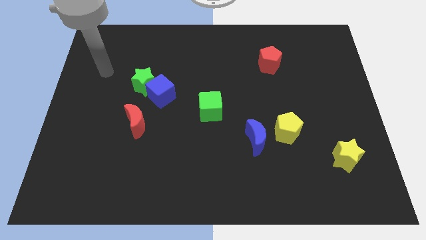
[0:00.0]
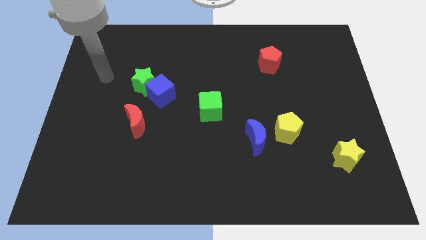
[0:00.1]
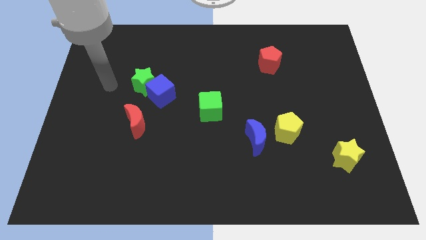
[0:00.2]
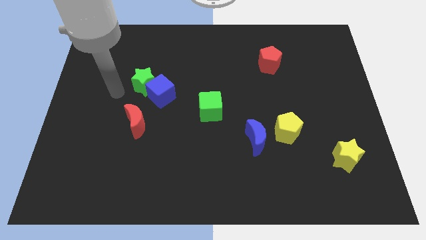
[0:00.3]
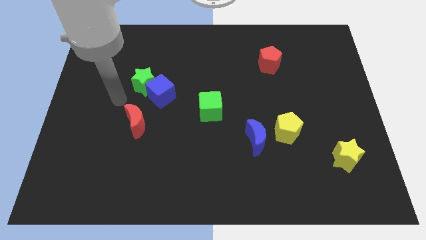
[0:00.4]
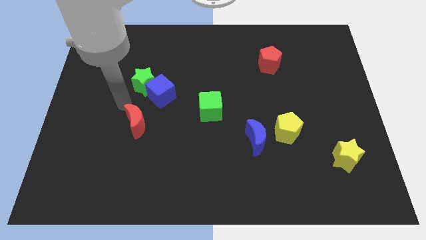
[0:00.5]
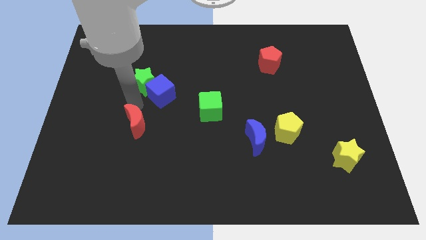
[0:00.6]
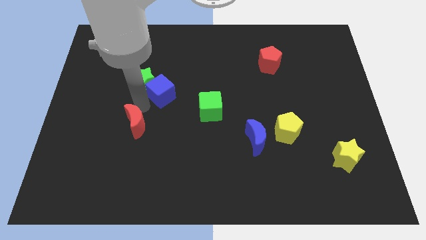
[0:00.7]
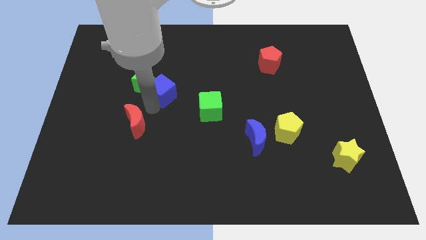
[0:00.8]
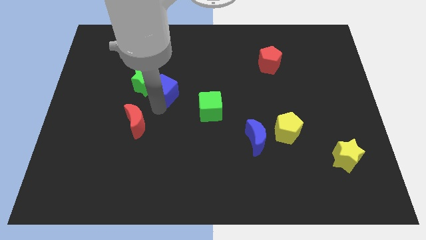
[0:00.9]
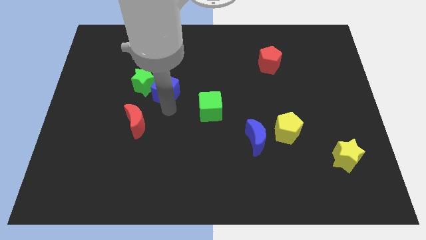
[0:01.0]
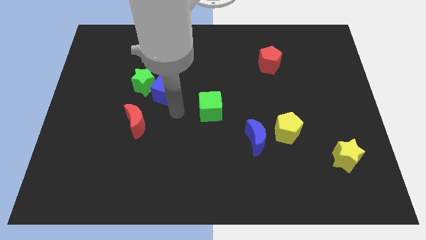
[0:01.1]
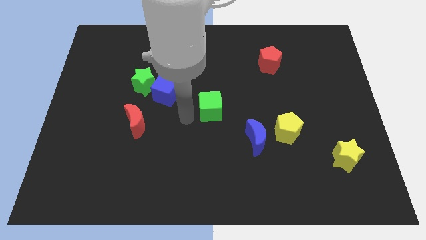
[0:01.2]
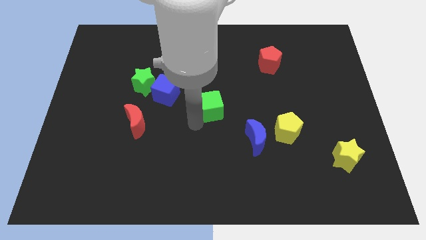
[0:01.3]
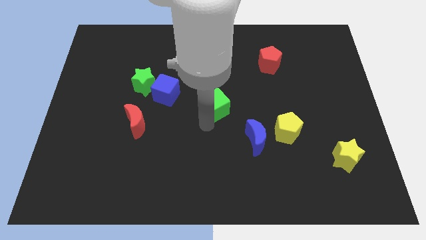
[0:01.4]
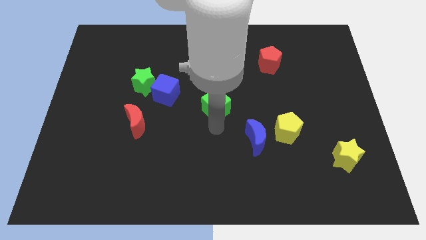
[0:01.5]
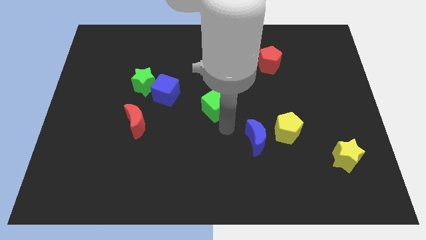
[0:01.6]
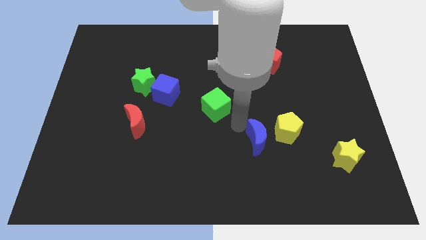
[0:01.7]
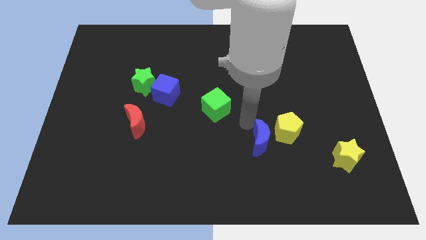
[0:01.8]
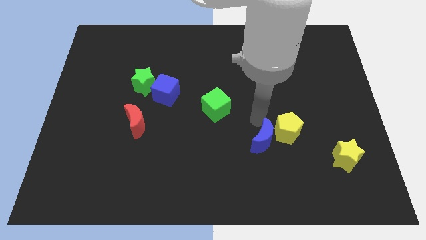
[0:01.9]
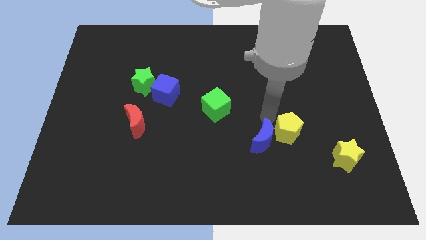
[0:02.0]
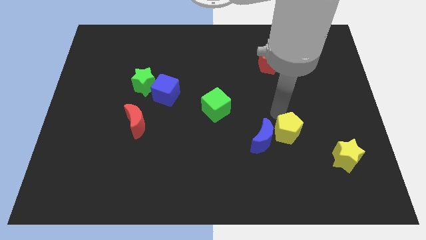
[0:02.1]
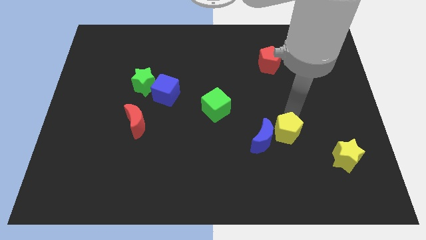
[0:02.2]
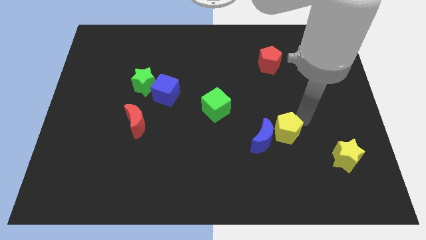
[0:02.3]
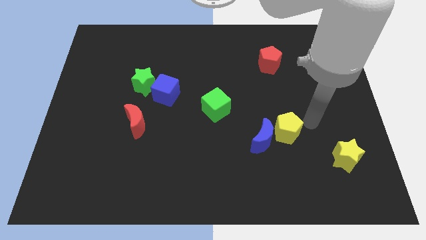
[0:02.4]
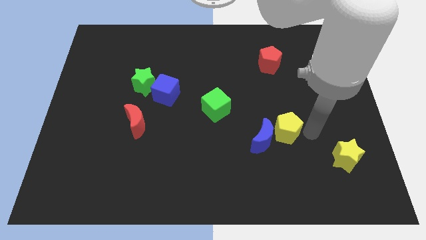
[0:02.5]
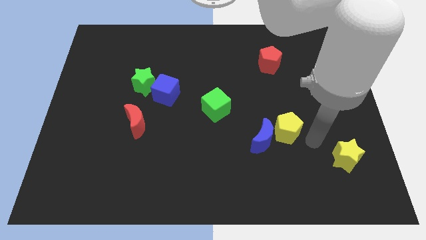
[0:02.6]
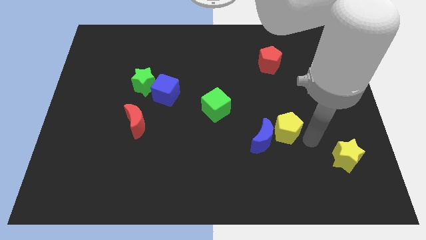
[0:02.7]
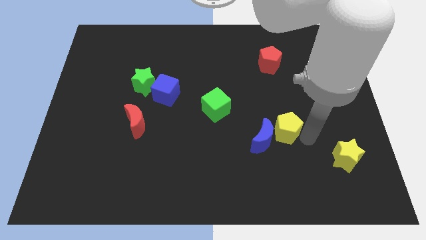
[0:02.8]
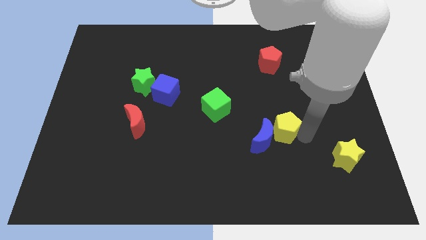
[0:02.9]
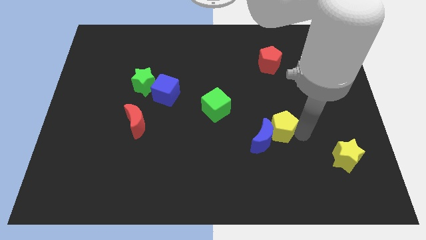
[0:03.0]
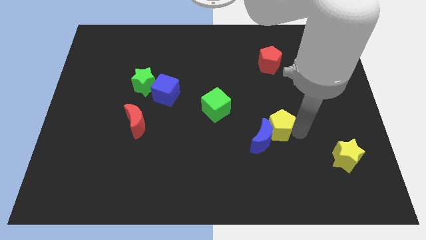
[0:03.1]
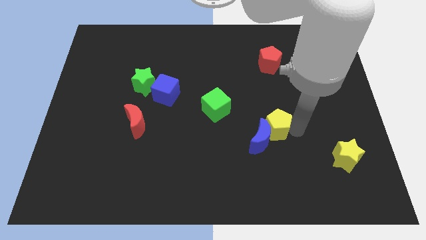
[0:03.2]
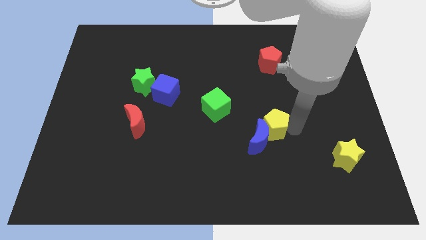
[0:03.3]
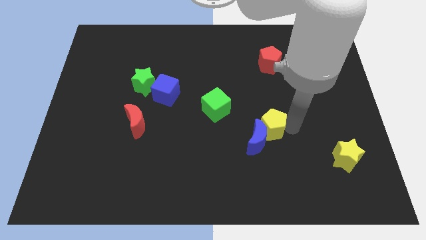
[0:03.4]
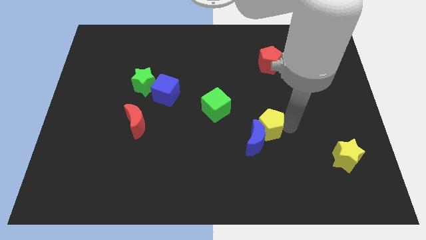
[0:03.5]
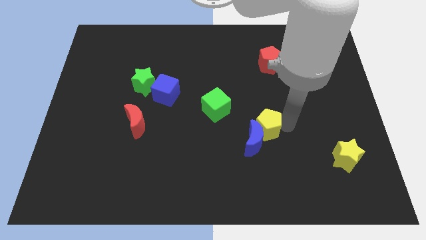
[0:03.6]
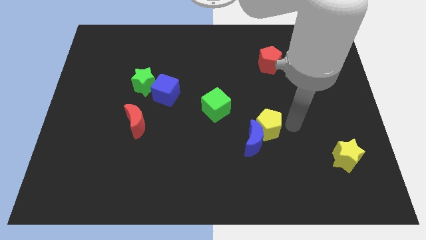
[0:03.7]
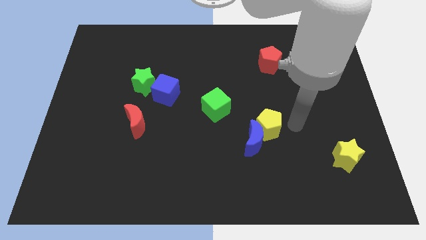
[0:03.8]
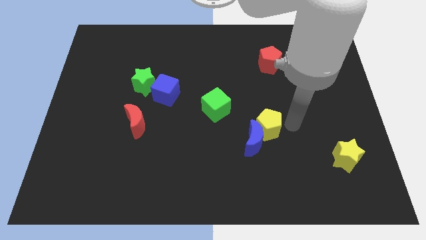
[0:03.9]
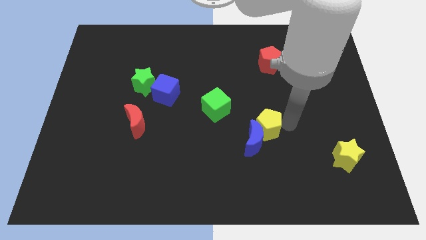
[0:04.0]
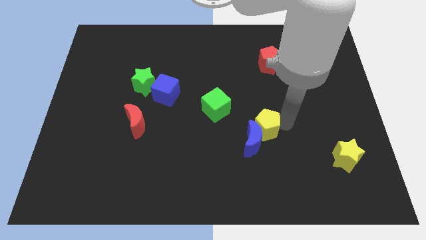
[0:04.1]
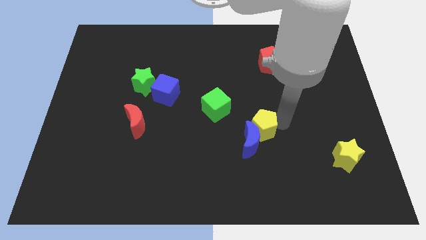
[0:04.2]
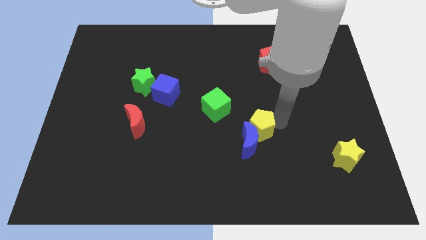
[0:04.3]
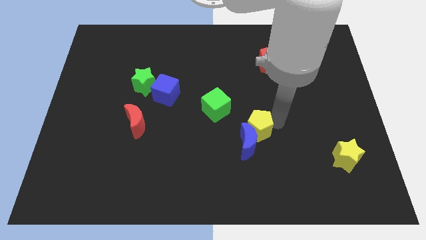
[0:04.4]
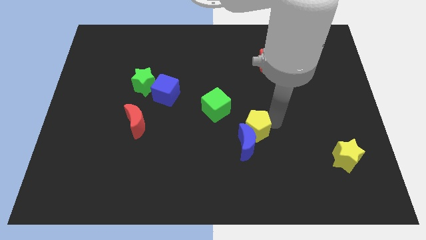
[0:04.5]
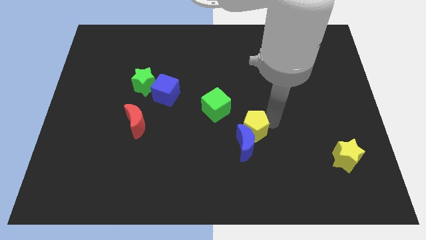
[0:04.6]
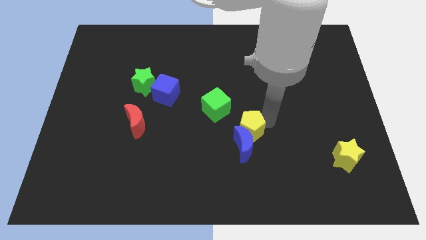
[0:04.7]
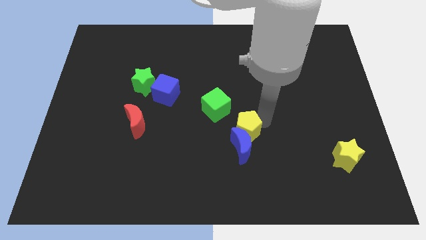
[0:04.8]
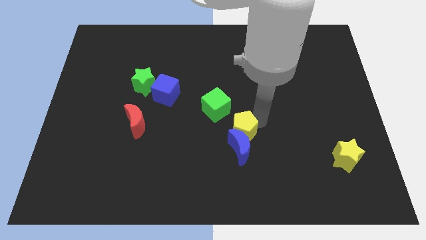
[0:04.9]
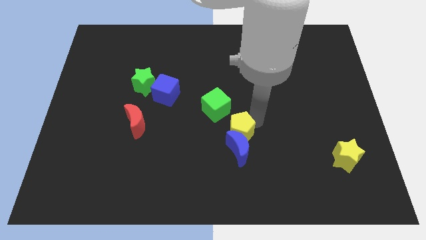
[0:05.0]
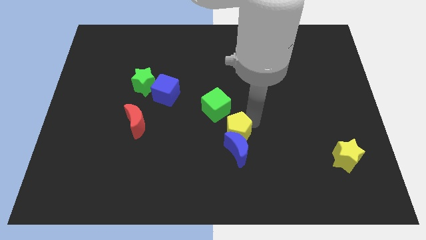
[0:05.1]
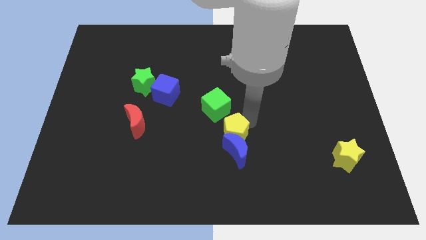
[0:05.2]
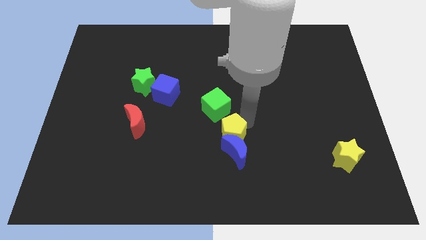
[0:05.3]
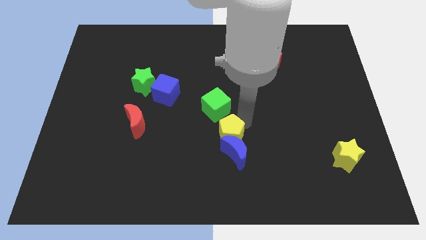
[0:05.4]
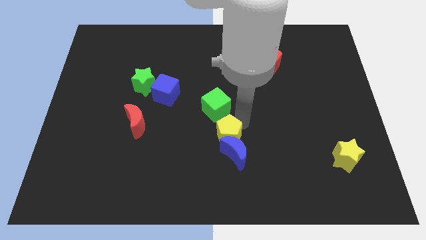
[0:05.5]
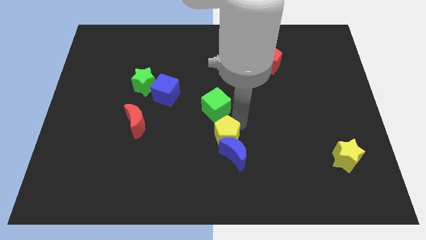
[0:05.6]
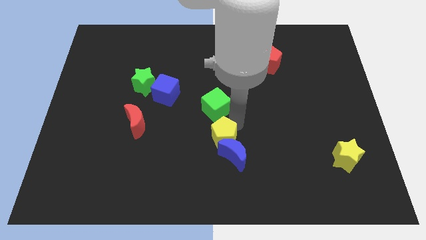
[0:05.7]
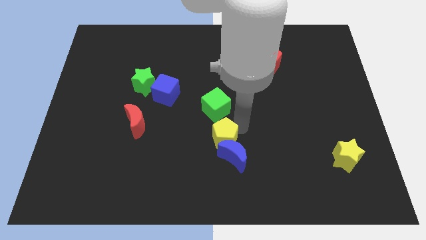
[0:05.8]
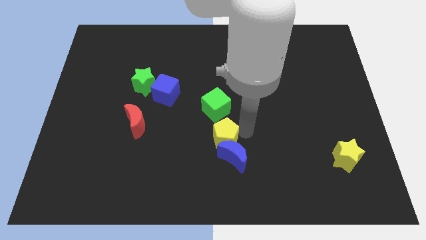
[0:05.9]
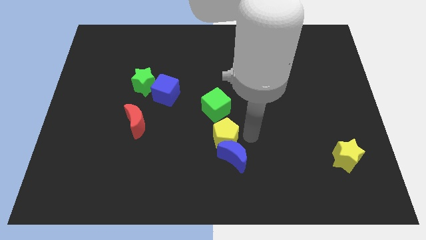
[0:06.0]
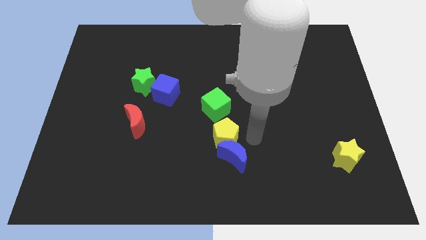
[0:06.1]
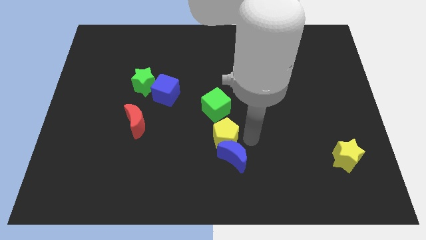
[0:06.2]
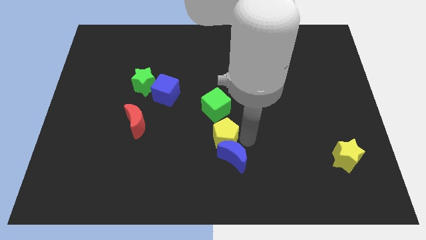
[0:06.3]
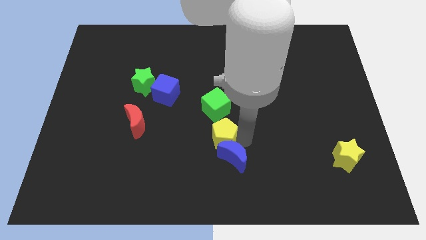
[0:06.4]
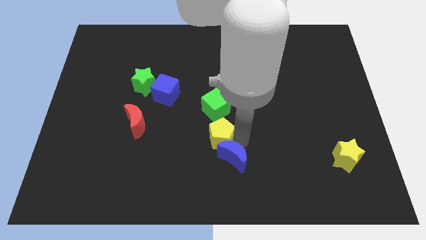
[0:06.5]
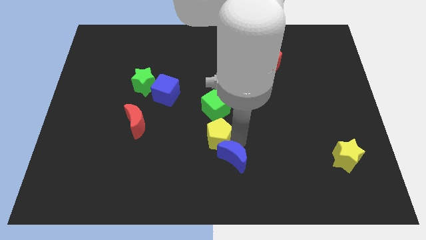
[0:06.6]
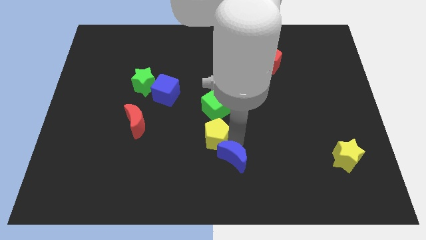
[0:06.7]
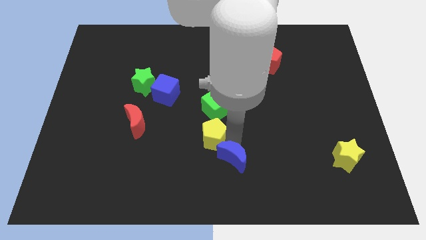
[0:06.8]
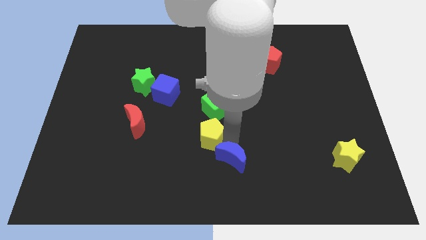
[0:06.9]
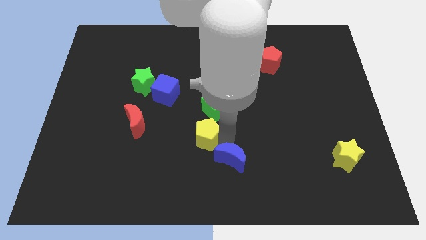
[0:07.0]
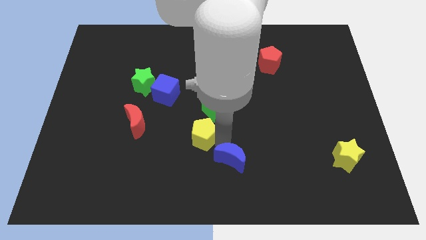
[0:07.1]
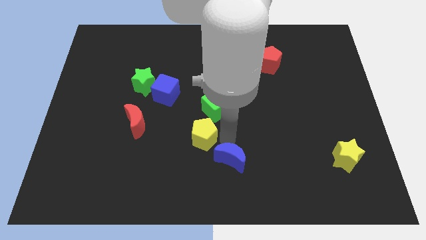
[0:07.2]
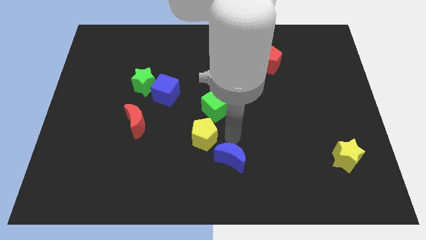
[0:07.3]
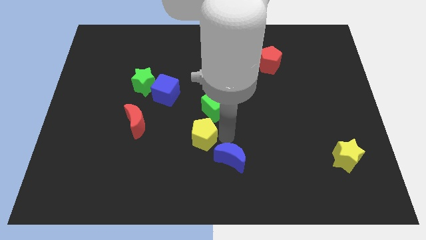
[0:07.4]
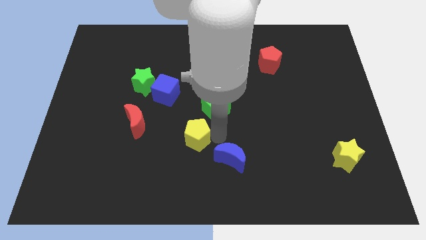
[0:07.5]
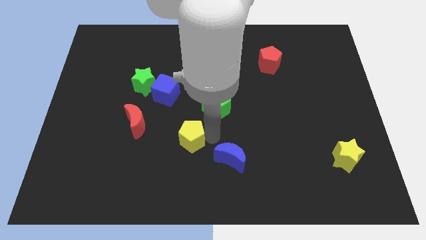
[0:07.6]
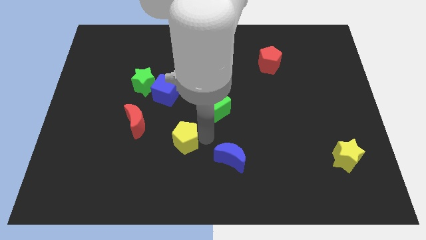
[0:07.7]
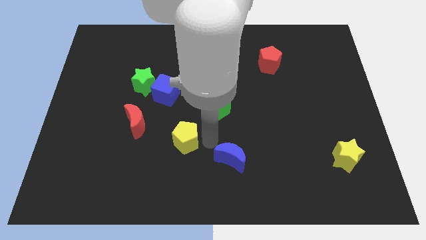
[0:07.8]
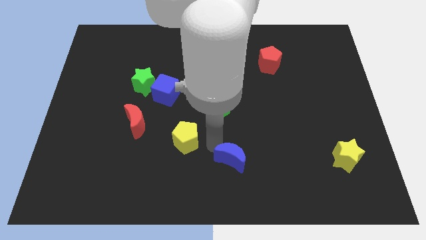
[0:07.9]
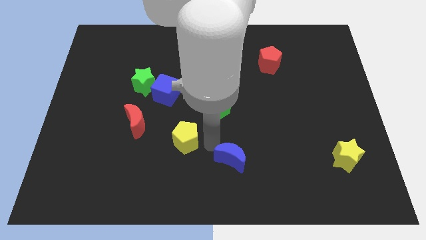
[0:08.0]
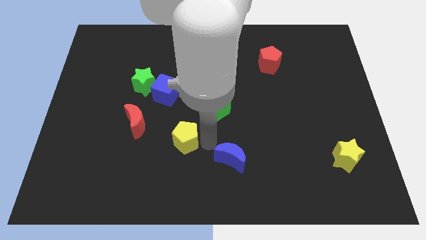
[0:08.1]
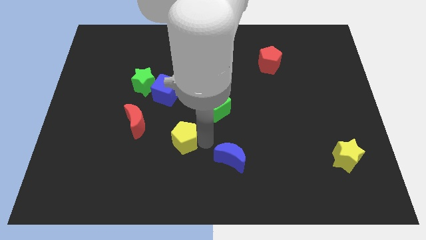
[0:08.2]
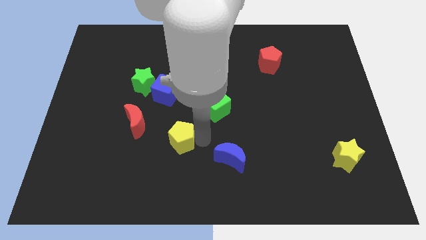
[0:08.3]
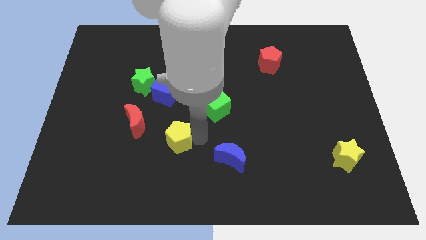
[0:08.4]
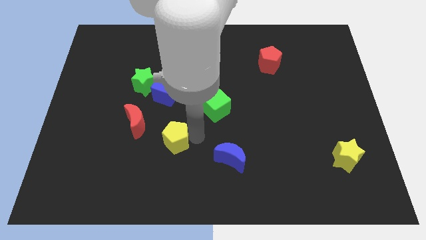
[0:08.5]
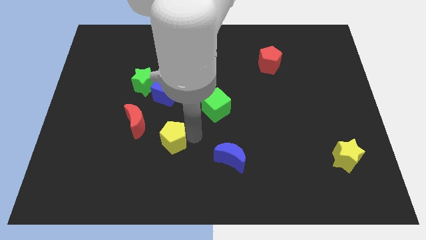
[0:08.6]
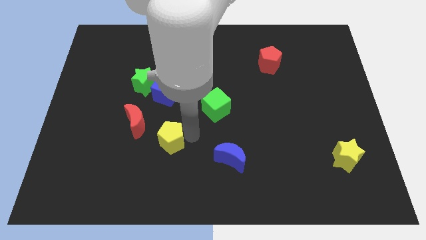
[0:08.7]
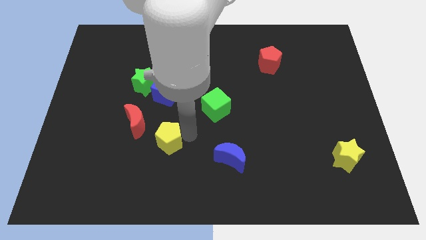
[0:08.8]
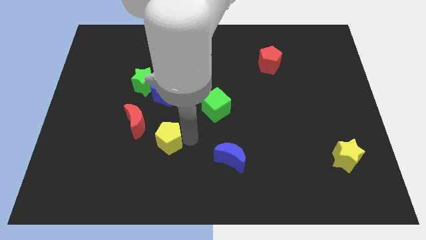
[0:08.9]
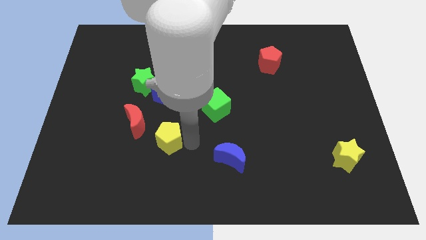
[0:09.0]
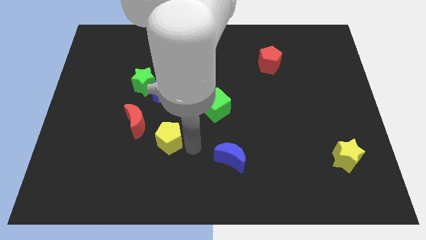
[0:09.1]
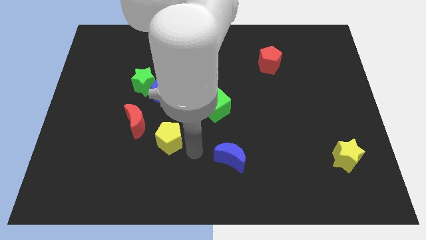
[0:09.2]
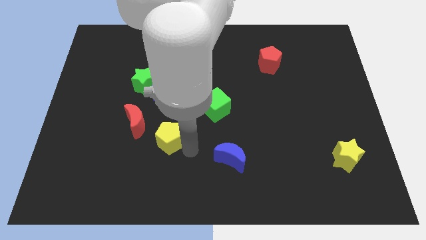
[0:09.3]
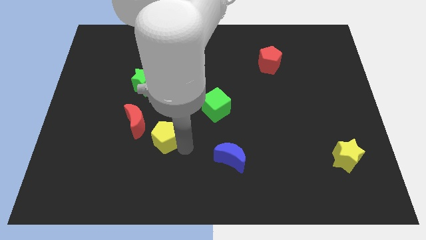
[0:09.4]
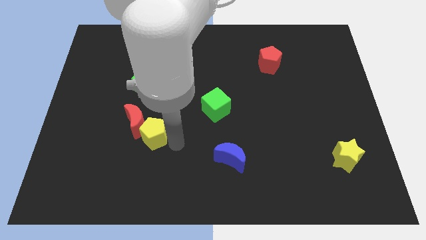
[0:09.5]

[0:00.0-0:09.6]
put the yellow pentagon next to the red moon
